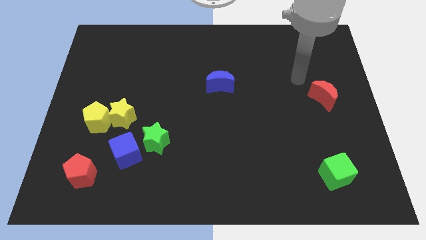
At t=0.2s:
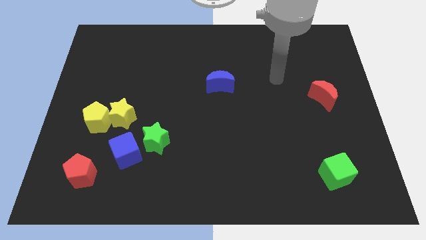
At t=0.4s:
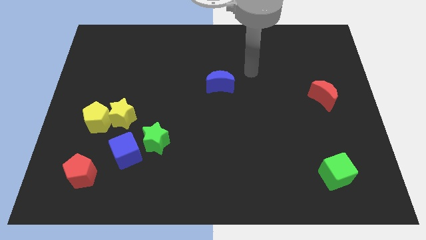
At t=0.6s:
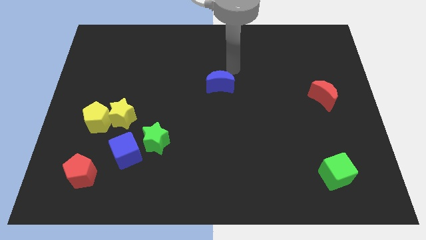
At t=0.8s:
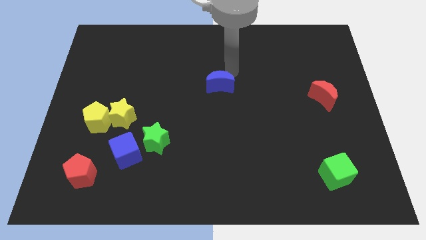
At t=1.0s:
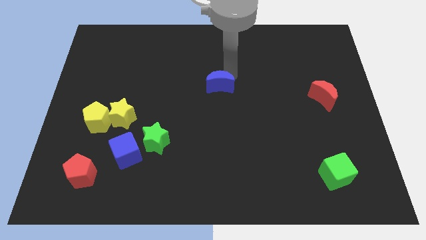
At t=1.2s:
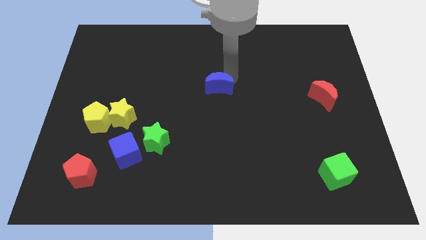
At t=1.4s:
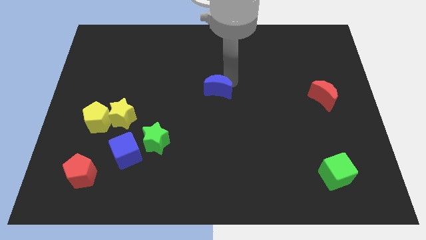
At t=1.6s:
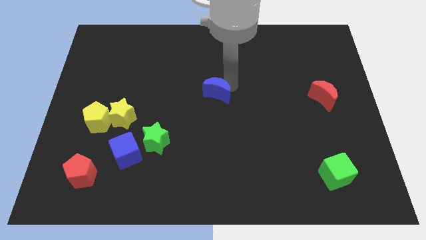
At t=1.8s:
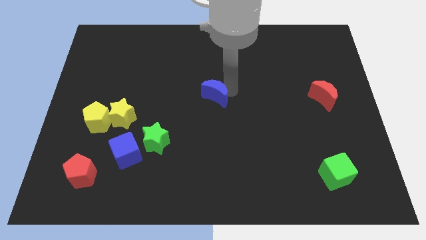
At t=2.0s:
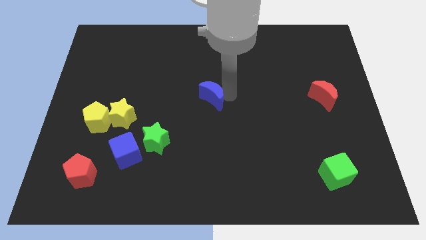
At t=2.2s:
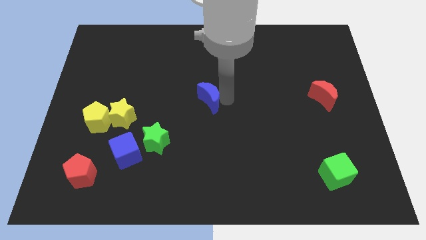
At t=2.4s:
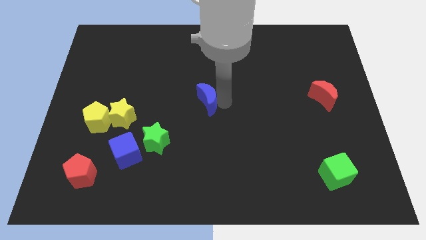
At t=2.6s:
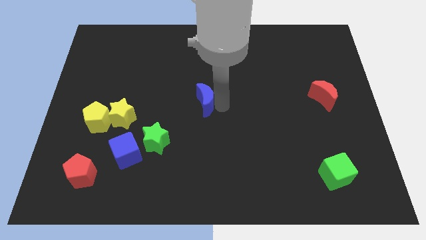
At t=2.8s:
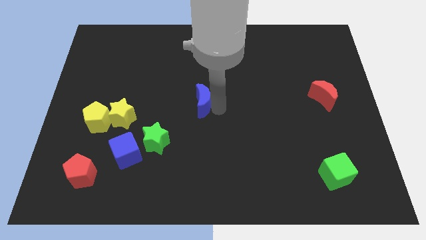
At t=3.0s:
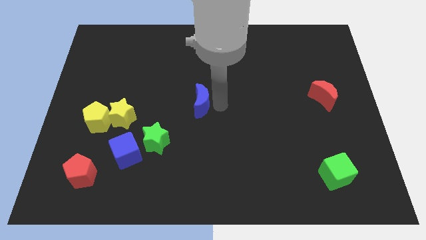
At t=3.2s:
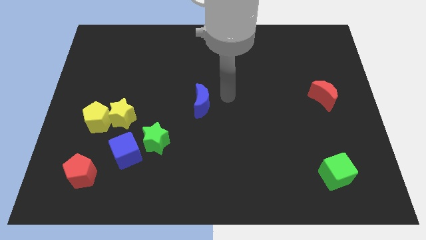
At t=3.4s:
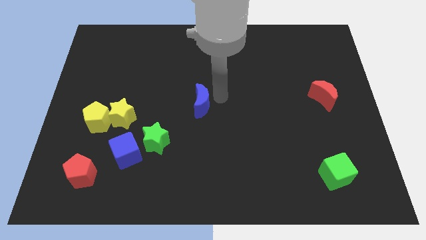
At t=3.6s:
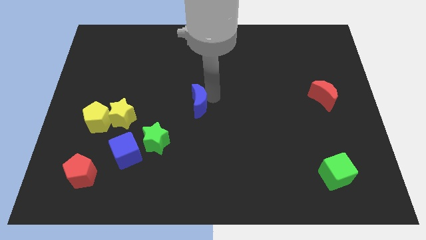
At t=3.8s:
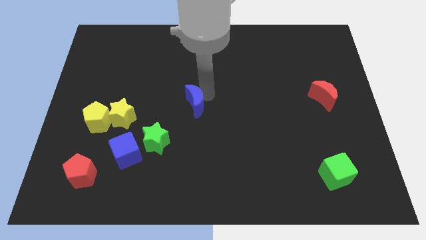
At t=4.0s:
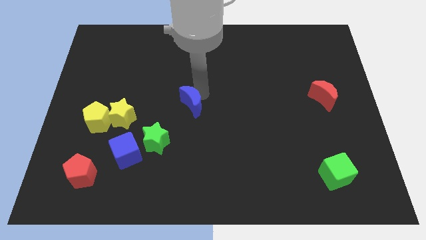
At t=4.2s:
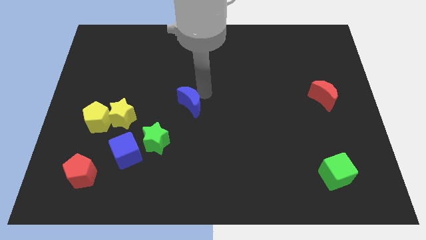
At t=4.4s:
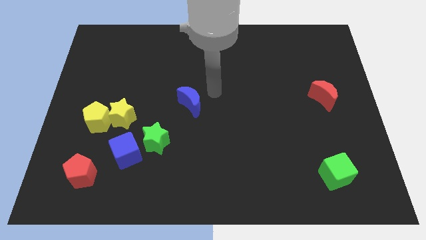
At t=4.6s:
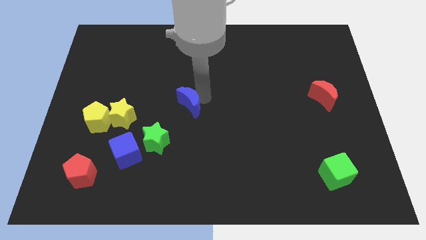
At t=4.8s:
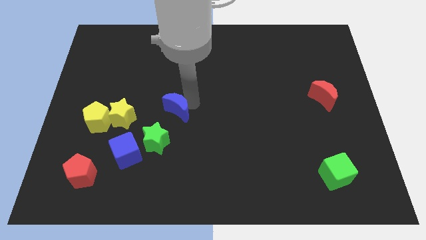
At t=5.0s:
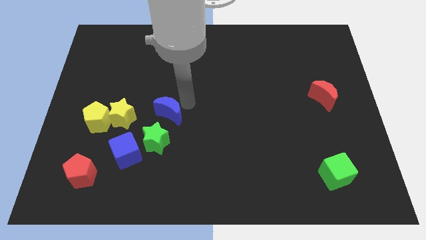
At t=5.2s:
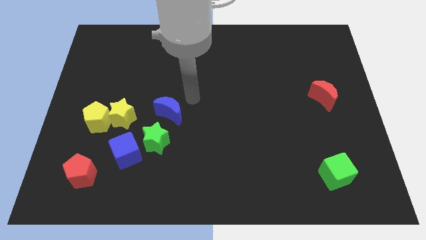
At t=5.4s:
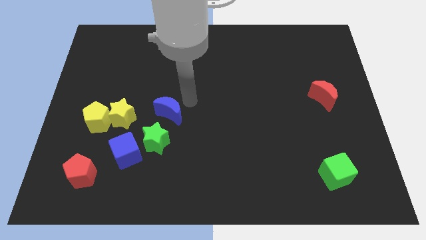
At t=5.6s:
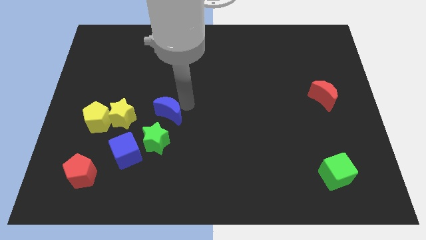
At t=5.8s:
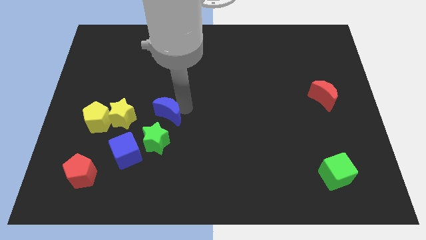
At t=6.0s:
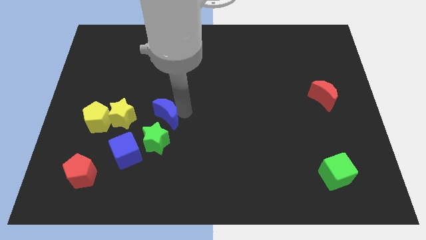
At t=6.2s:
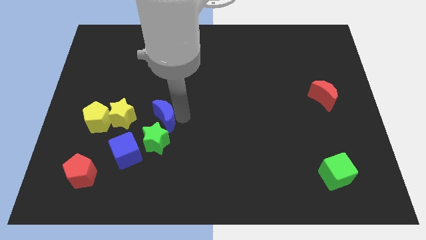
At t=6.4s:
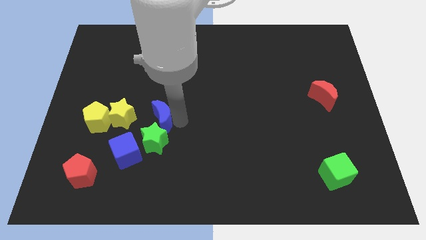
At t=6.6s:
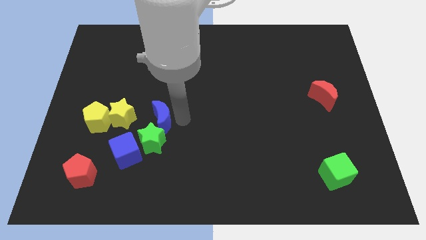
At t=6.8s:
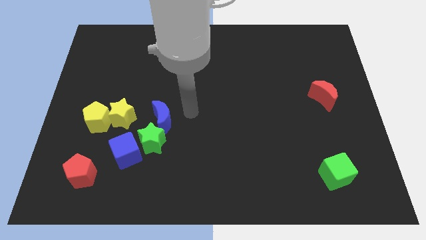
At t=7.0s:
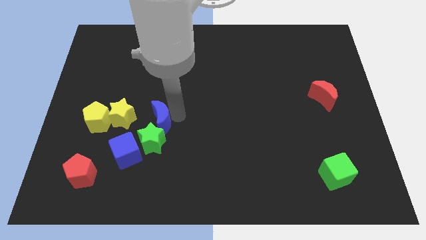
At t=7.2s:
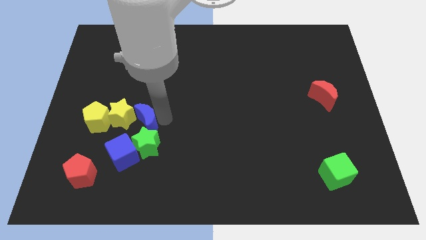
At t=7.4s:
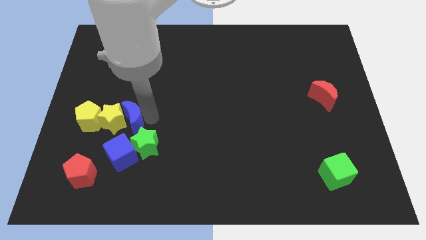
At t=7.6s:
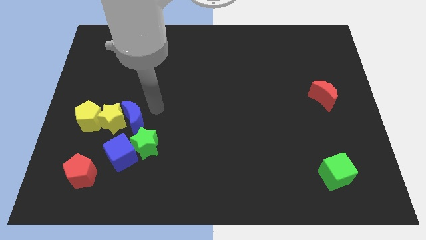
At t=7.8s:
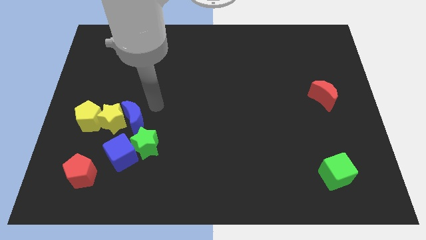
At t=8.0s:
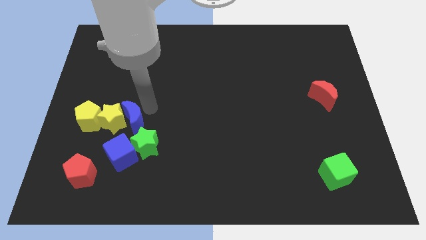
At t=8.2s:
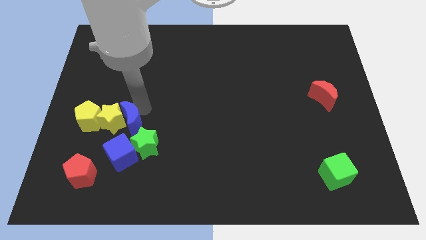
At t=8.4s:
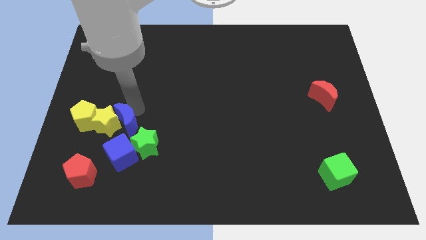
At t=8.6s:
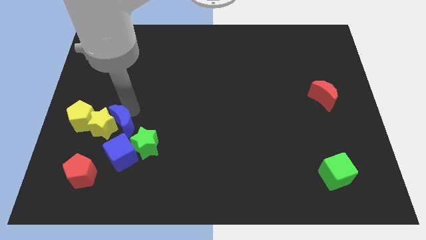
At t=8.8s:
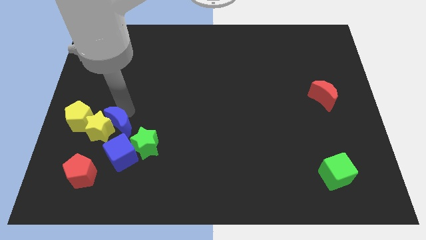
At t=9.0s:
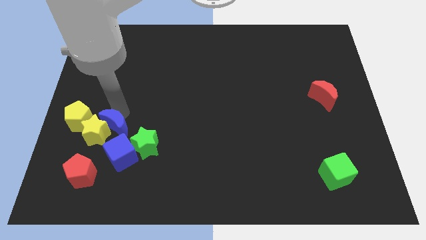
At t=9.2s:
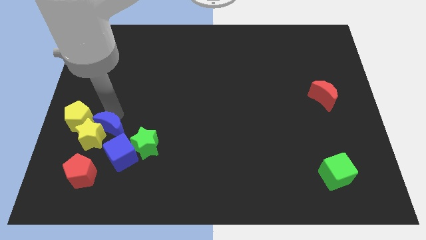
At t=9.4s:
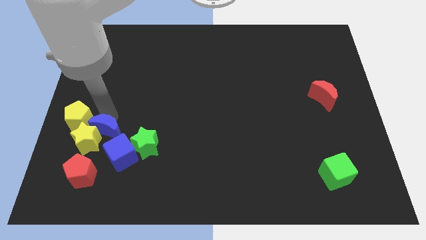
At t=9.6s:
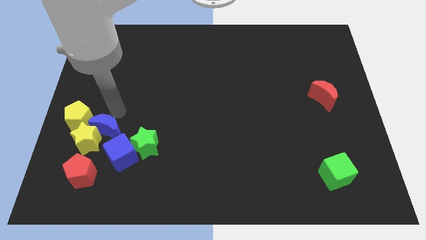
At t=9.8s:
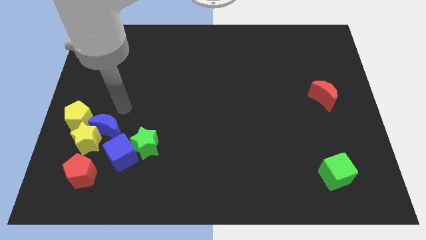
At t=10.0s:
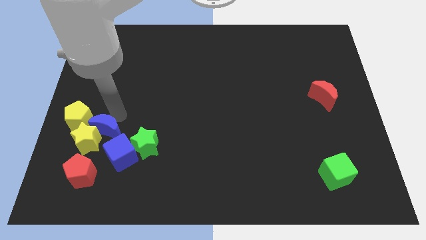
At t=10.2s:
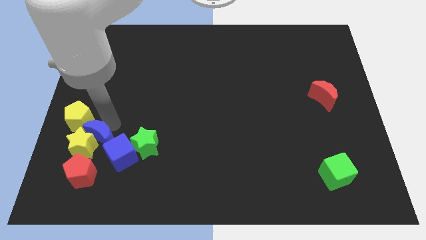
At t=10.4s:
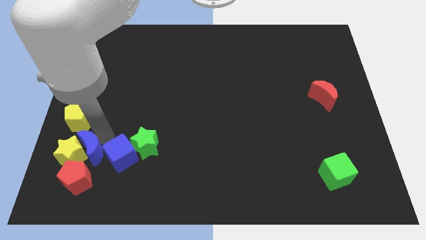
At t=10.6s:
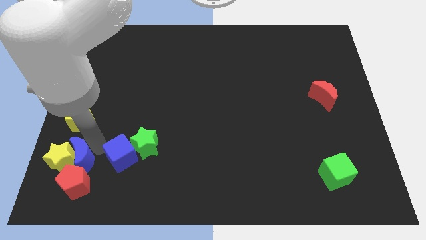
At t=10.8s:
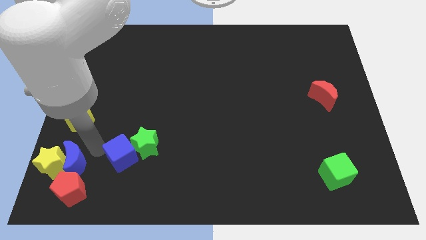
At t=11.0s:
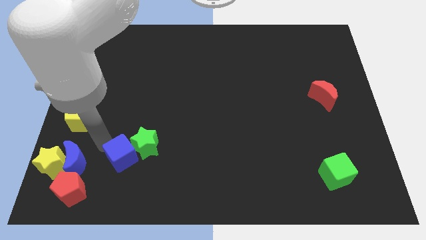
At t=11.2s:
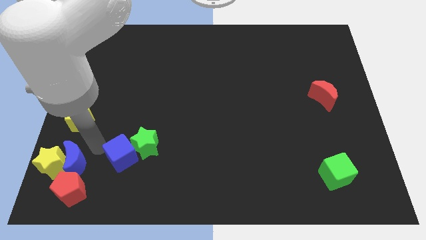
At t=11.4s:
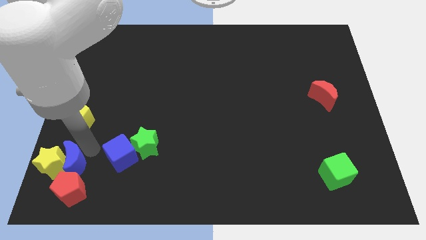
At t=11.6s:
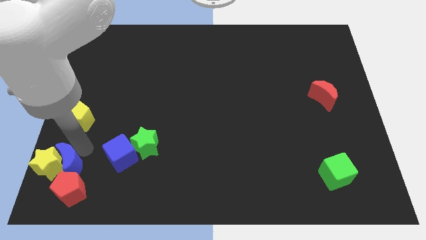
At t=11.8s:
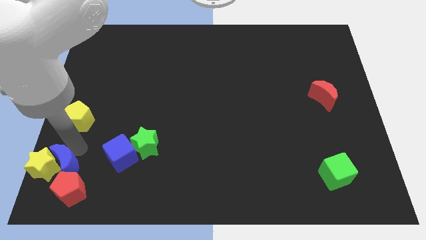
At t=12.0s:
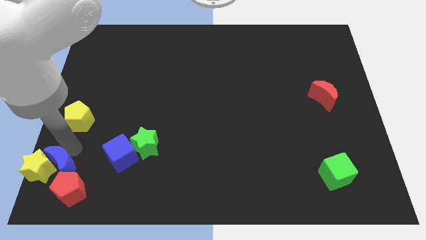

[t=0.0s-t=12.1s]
slide the blue moon to the bottom left corner

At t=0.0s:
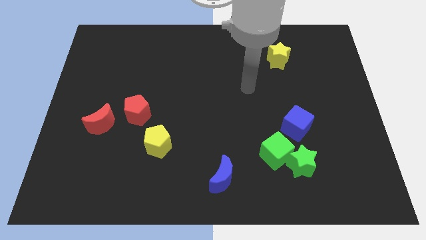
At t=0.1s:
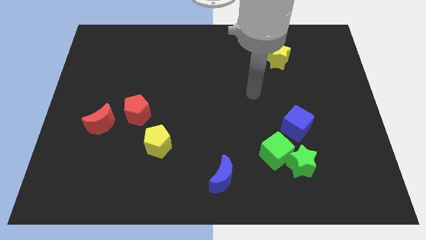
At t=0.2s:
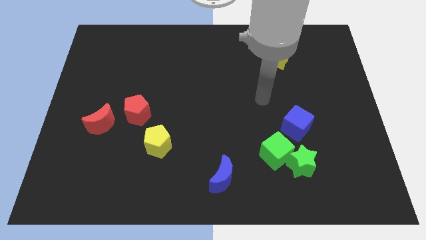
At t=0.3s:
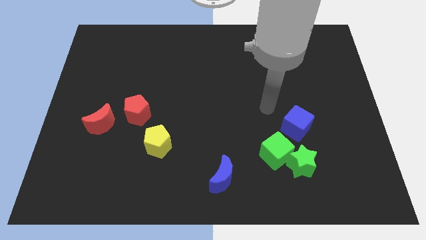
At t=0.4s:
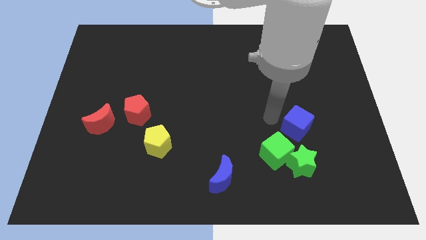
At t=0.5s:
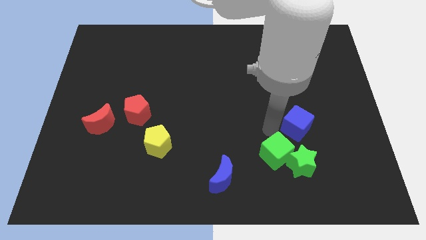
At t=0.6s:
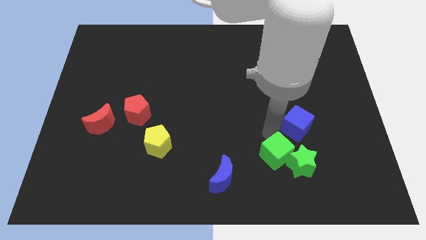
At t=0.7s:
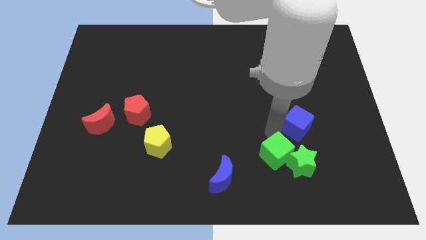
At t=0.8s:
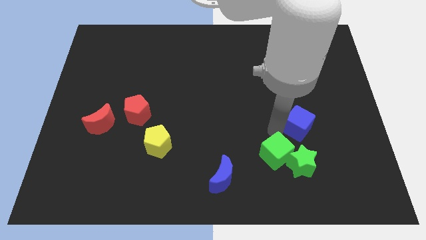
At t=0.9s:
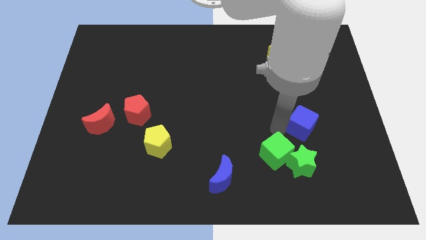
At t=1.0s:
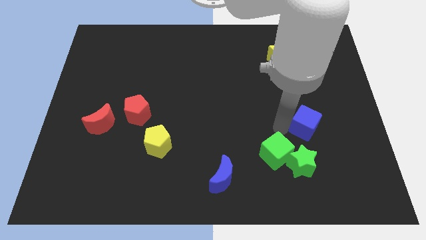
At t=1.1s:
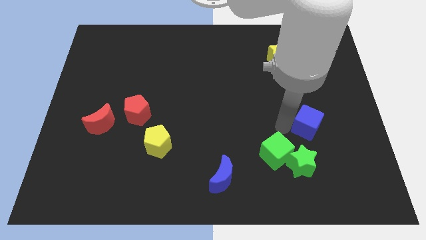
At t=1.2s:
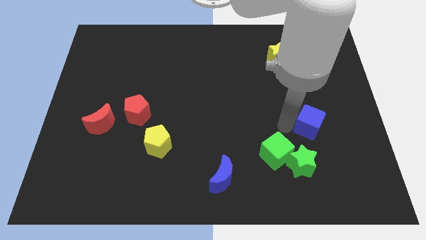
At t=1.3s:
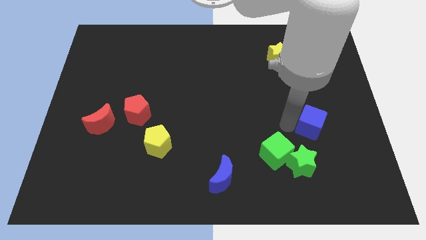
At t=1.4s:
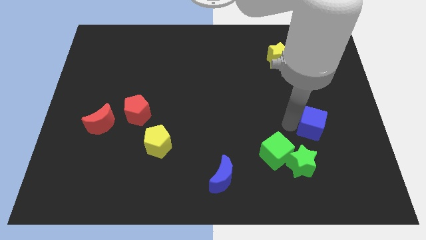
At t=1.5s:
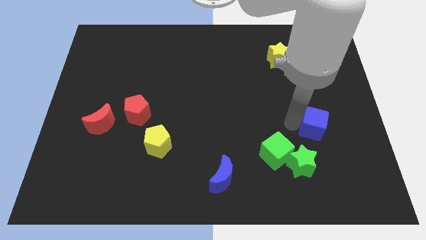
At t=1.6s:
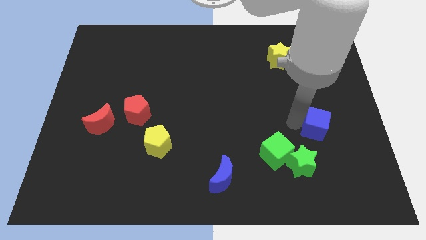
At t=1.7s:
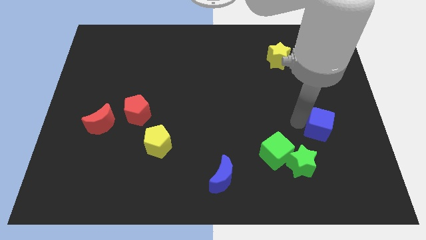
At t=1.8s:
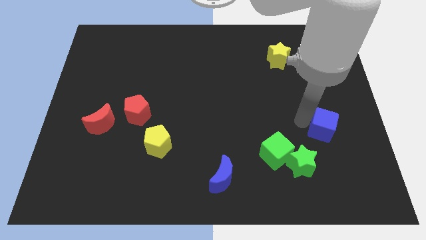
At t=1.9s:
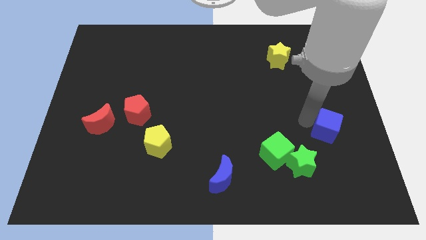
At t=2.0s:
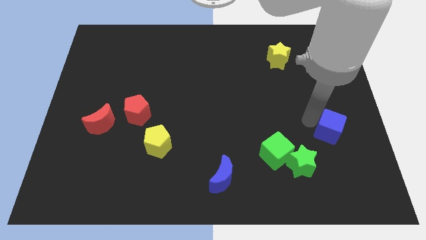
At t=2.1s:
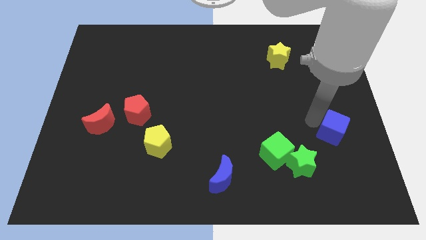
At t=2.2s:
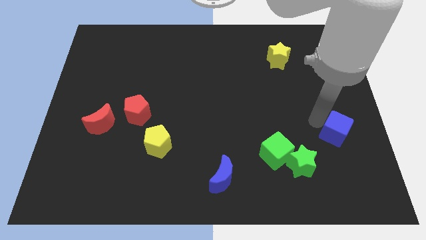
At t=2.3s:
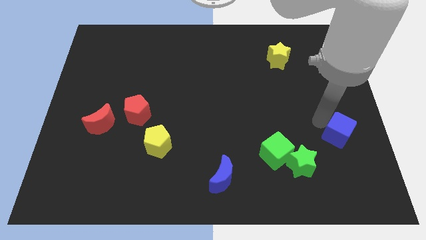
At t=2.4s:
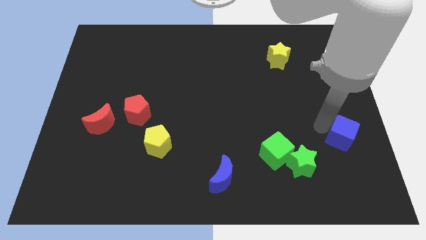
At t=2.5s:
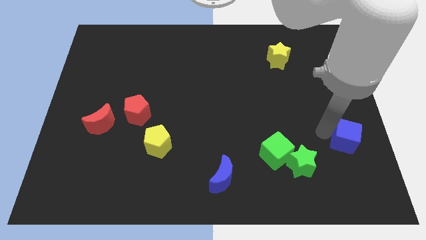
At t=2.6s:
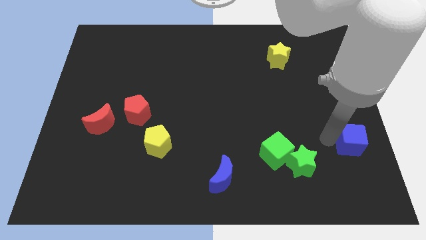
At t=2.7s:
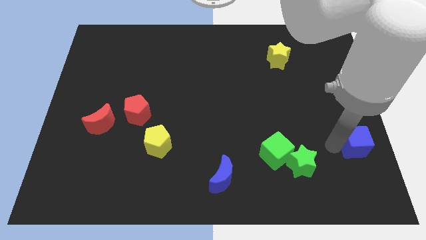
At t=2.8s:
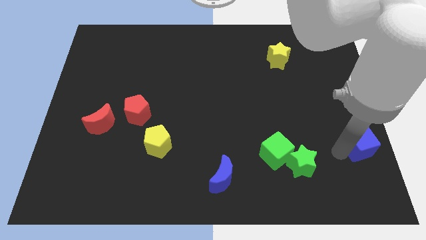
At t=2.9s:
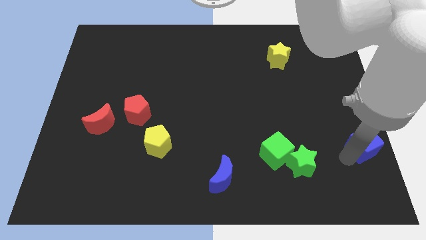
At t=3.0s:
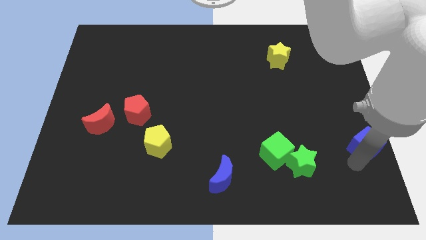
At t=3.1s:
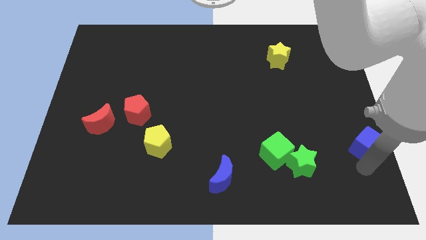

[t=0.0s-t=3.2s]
move the blue cube to the center right
